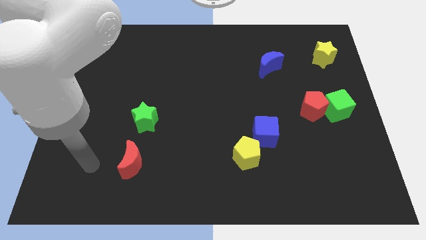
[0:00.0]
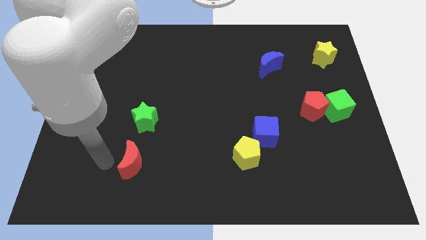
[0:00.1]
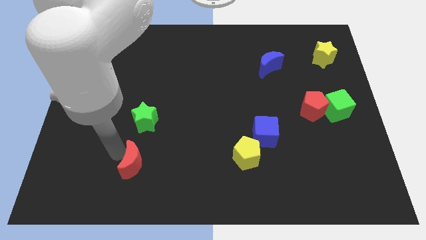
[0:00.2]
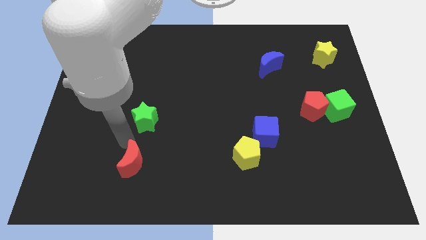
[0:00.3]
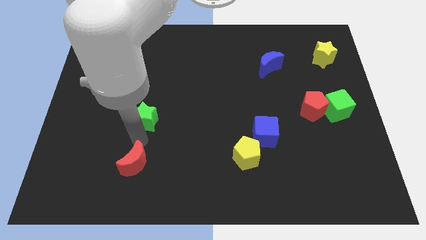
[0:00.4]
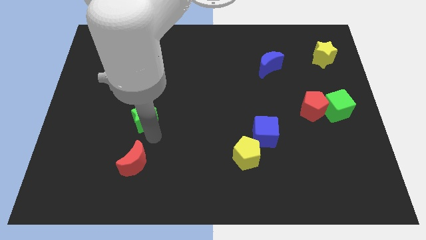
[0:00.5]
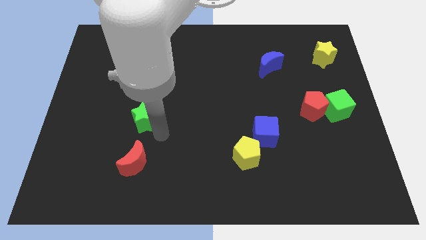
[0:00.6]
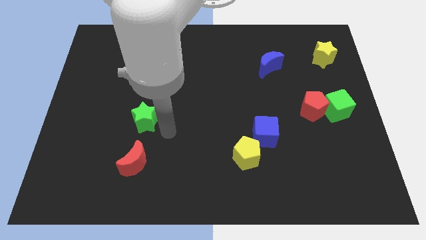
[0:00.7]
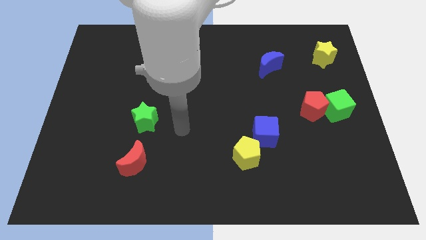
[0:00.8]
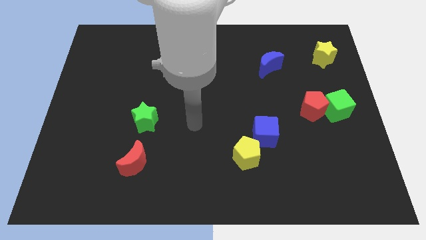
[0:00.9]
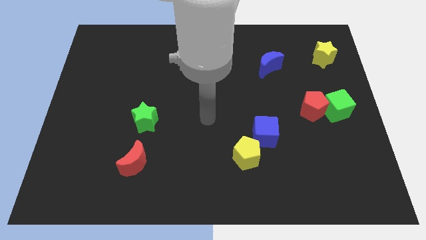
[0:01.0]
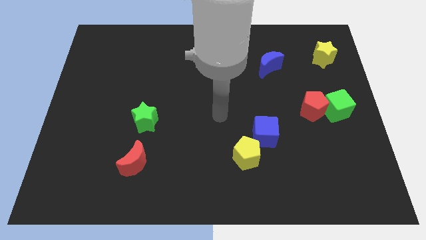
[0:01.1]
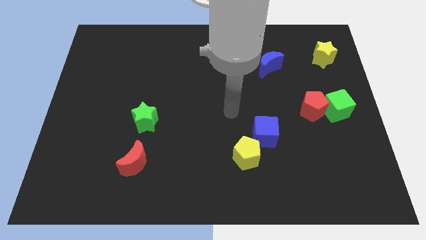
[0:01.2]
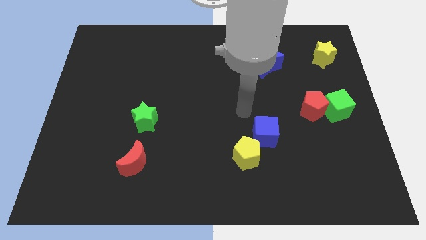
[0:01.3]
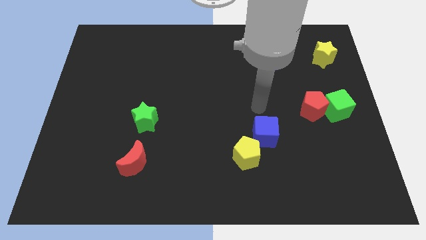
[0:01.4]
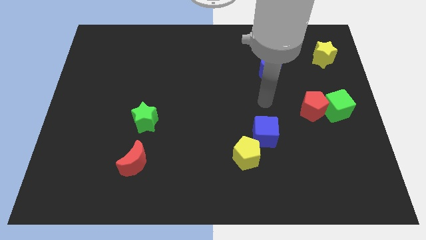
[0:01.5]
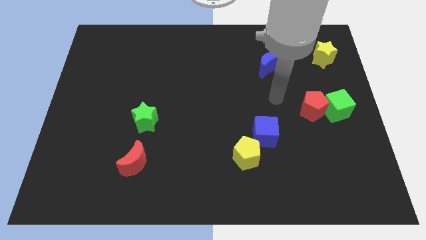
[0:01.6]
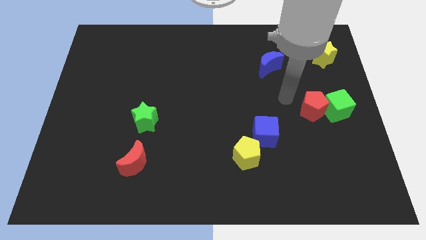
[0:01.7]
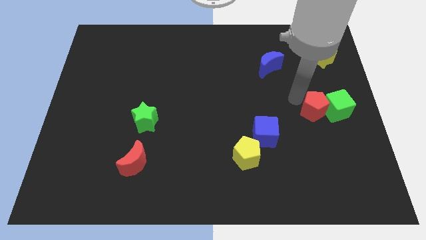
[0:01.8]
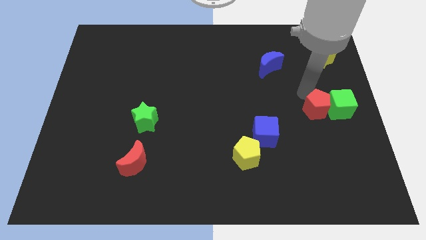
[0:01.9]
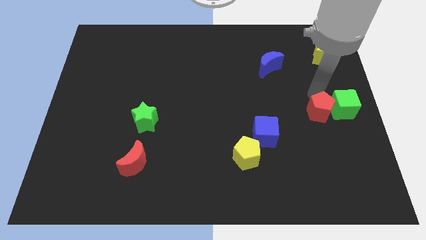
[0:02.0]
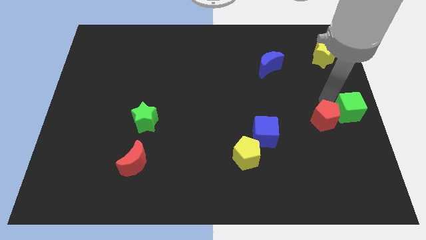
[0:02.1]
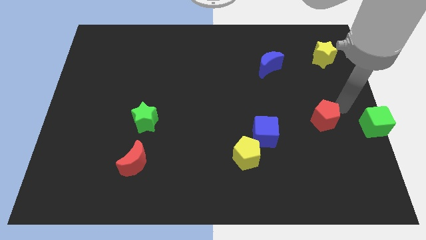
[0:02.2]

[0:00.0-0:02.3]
move the red pentagon away from the green cube

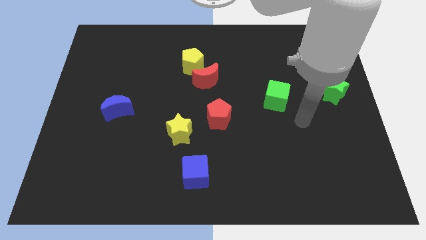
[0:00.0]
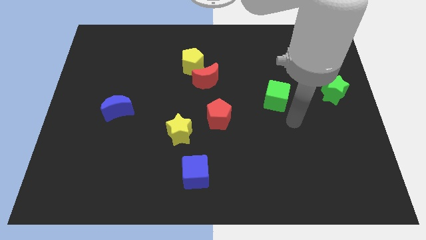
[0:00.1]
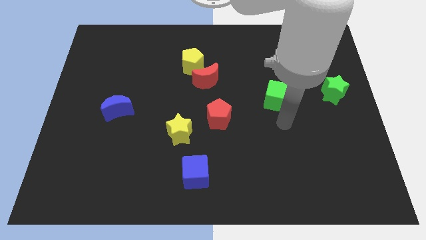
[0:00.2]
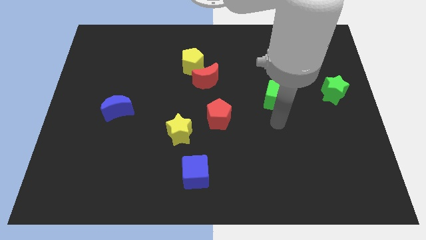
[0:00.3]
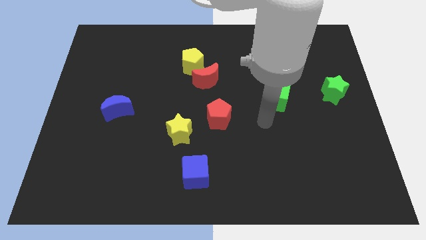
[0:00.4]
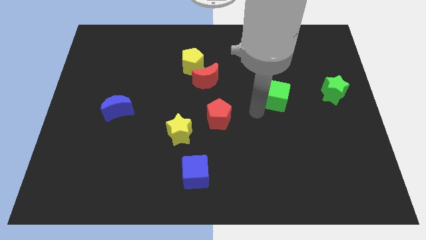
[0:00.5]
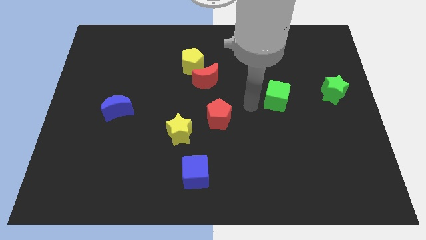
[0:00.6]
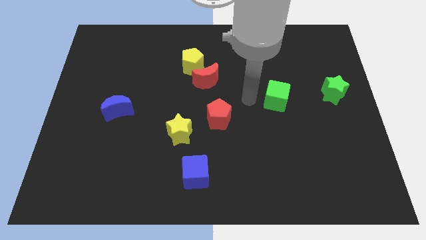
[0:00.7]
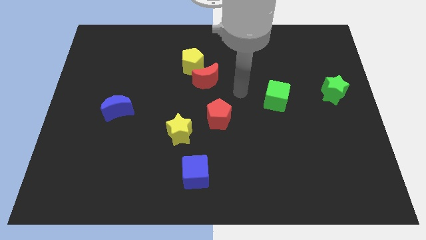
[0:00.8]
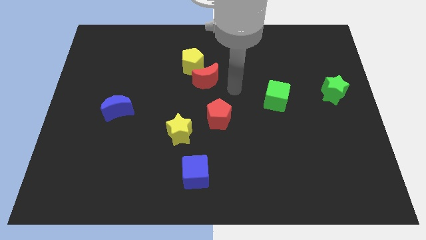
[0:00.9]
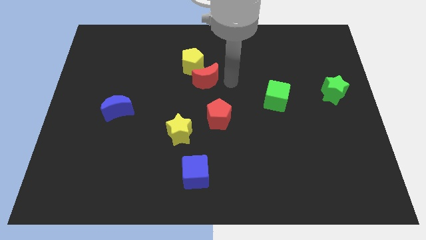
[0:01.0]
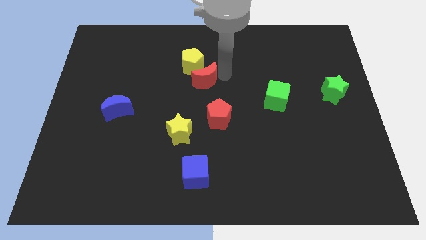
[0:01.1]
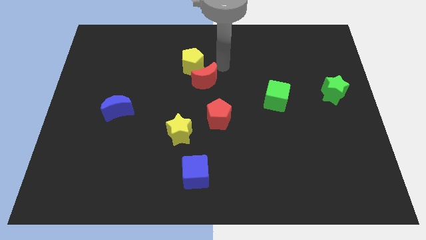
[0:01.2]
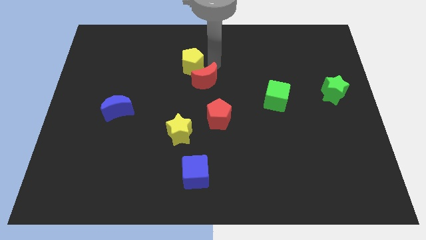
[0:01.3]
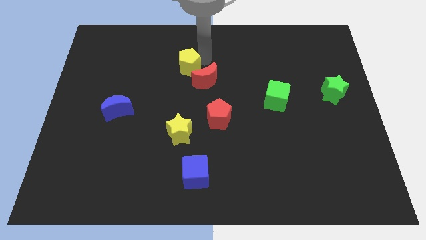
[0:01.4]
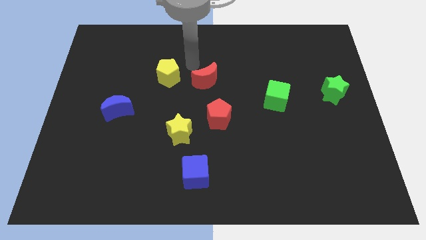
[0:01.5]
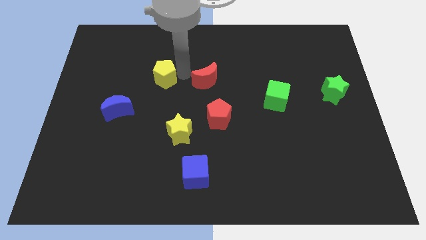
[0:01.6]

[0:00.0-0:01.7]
separate the red moon from the yellow pentagon

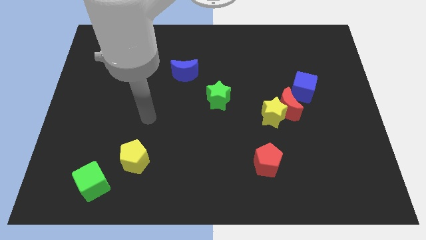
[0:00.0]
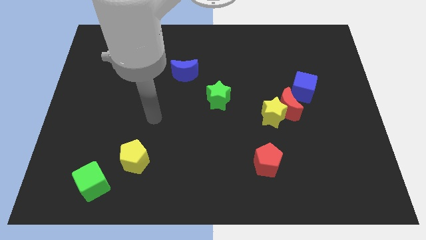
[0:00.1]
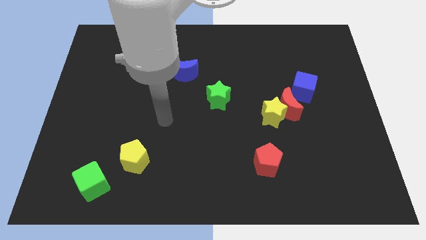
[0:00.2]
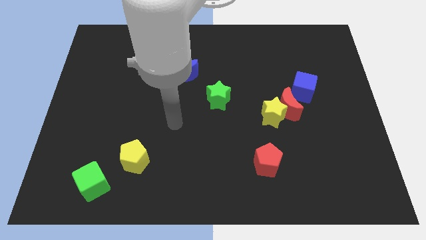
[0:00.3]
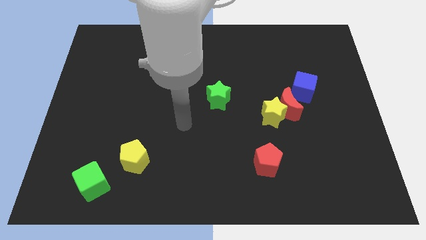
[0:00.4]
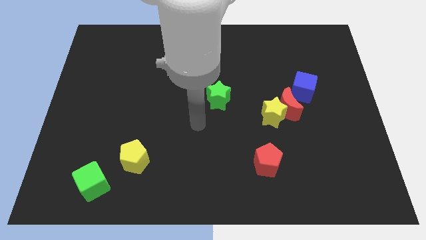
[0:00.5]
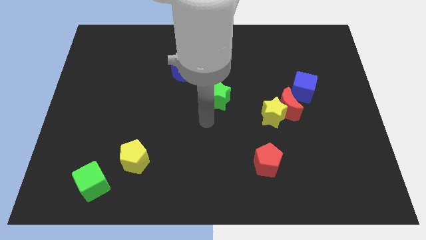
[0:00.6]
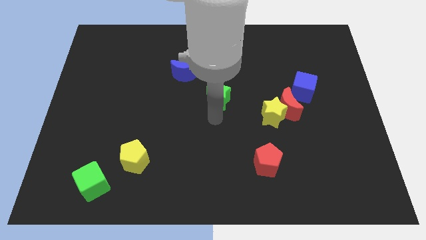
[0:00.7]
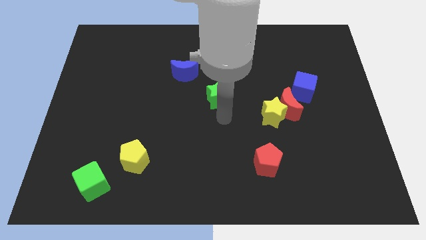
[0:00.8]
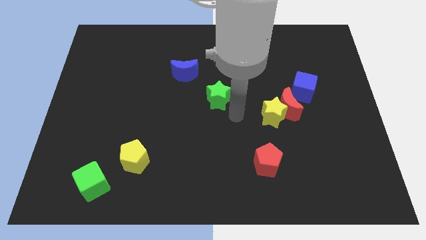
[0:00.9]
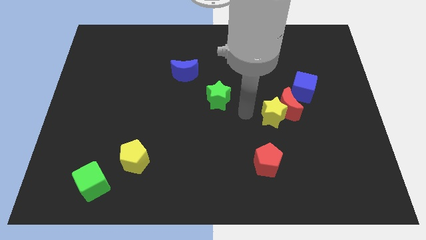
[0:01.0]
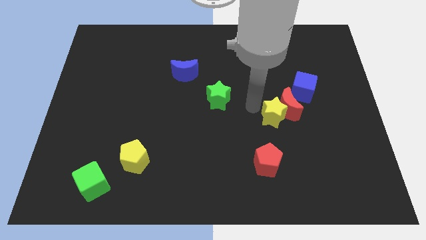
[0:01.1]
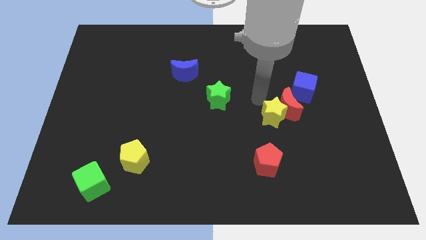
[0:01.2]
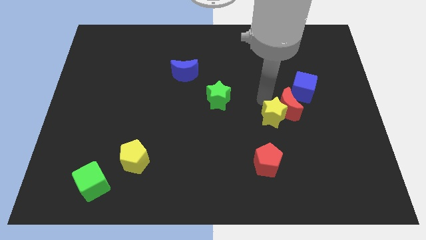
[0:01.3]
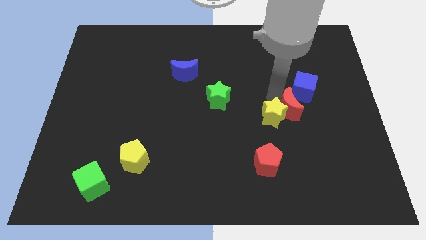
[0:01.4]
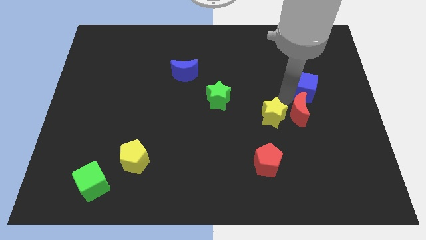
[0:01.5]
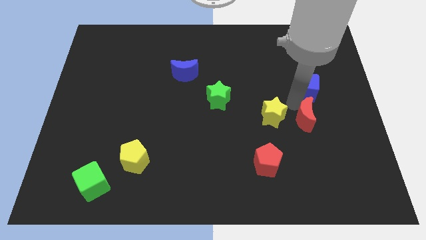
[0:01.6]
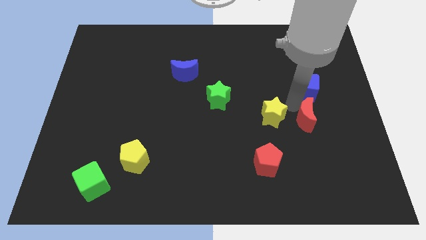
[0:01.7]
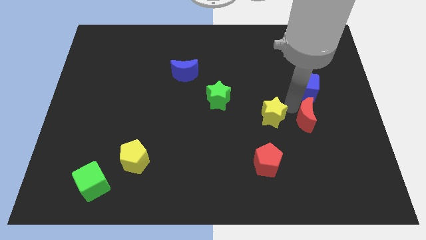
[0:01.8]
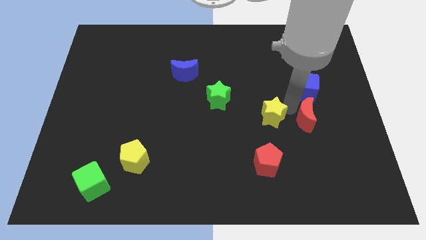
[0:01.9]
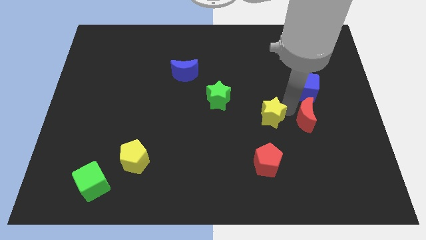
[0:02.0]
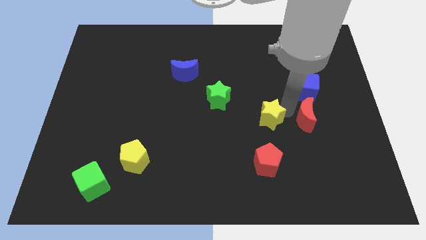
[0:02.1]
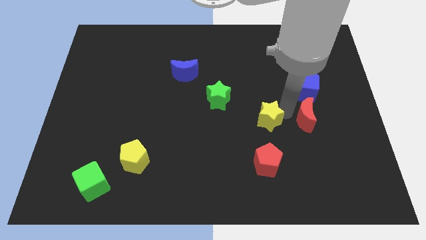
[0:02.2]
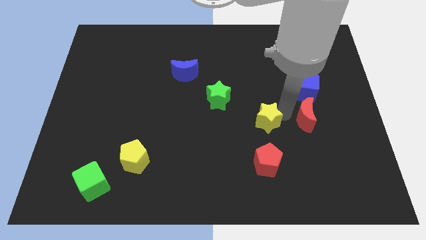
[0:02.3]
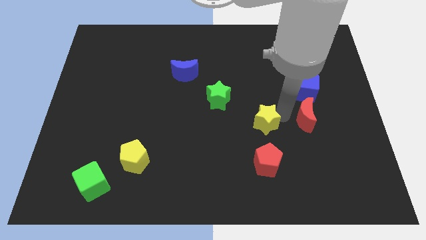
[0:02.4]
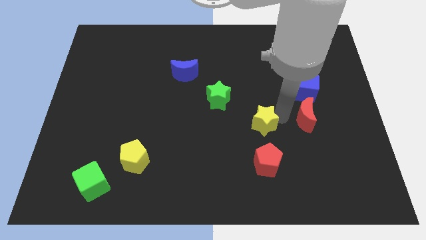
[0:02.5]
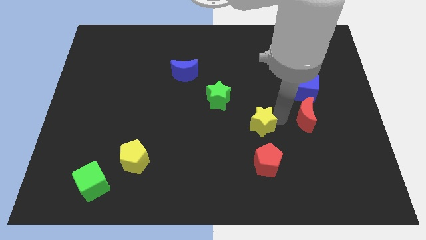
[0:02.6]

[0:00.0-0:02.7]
move the yellow star away from the red moon

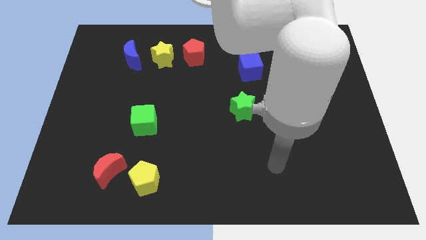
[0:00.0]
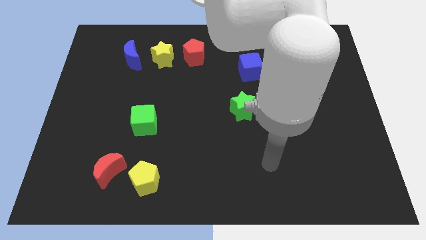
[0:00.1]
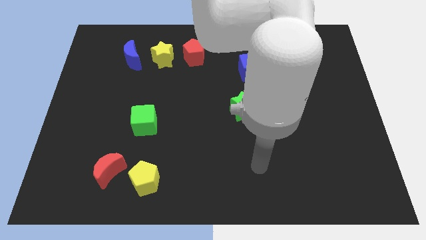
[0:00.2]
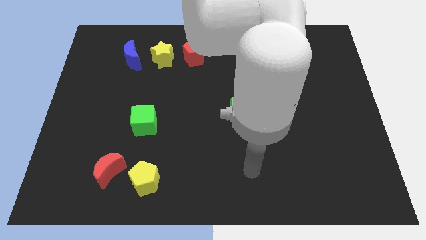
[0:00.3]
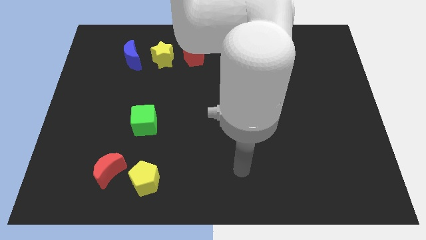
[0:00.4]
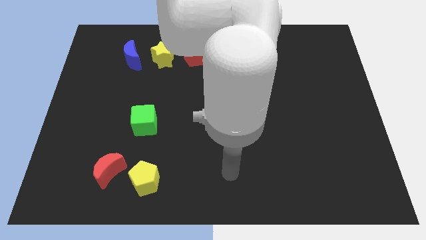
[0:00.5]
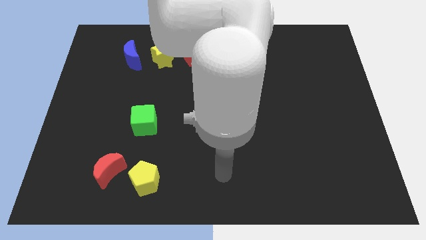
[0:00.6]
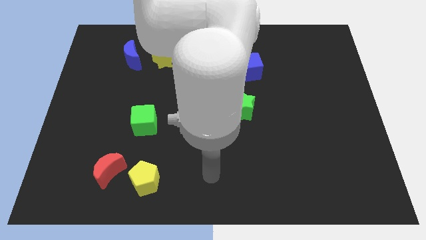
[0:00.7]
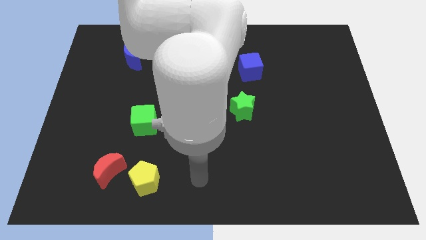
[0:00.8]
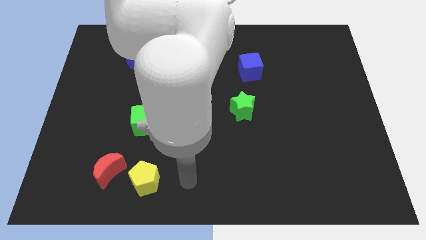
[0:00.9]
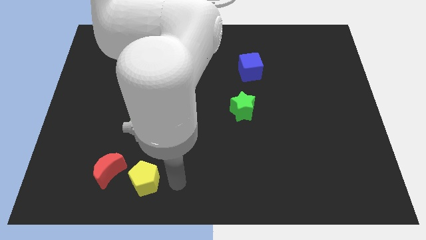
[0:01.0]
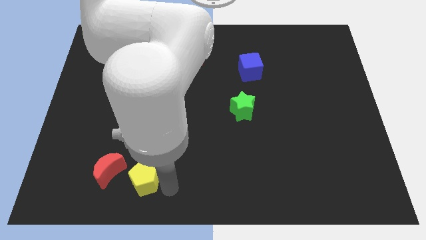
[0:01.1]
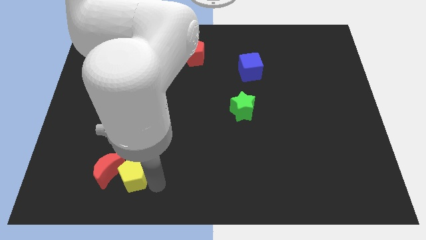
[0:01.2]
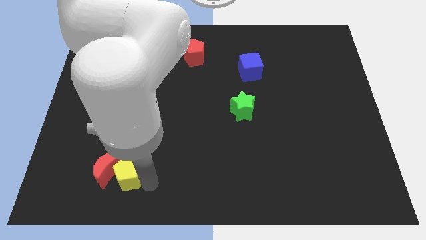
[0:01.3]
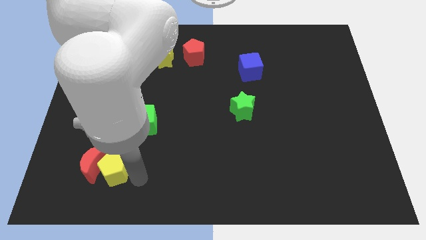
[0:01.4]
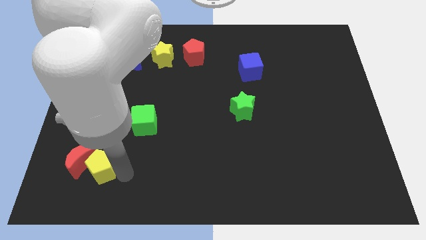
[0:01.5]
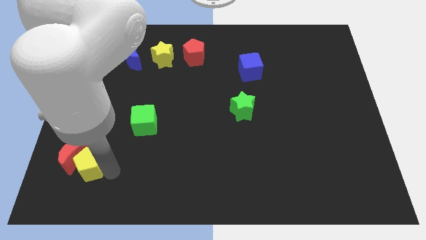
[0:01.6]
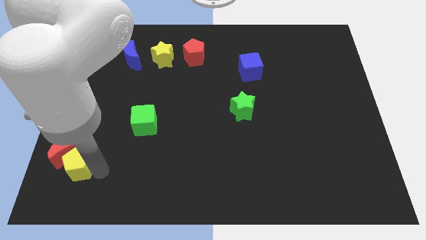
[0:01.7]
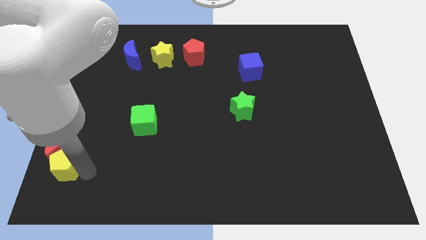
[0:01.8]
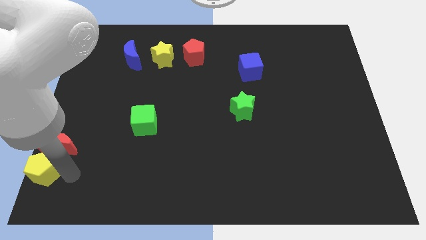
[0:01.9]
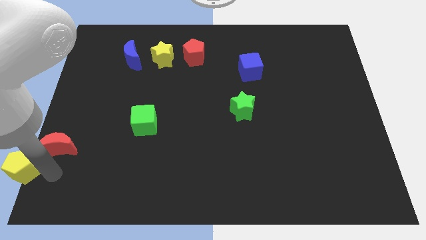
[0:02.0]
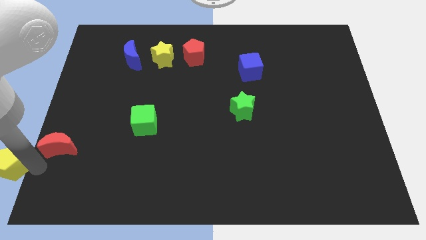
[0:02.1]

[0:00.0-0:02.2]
pull the red moon apart from the yellow pentagon

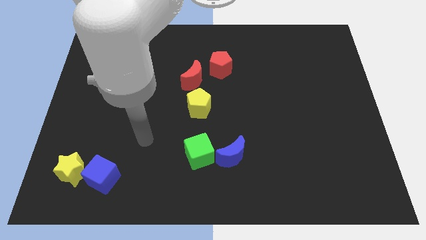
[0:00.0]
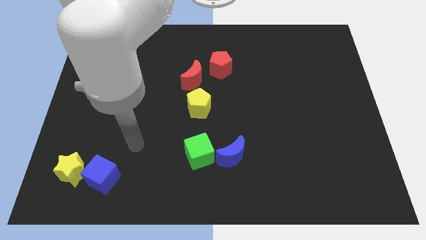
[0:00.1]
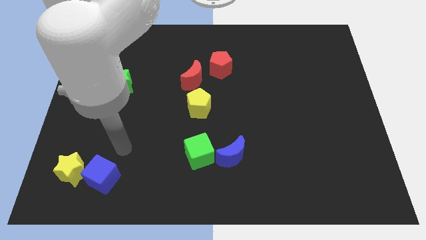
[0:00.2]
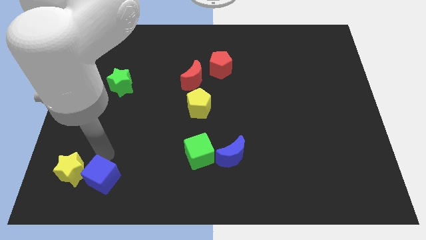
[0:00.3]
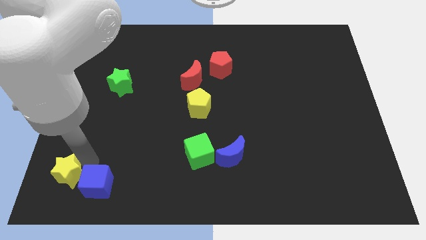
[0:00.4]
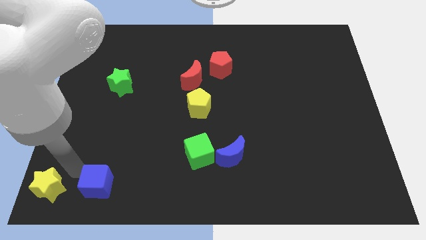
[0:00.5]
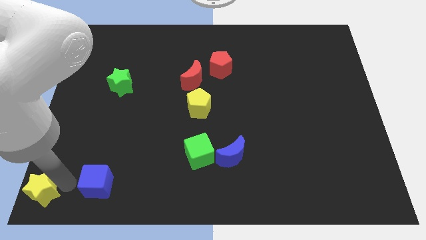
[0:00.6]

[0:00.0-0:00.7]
separate the blue cube from the yellow star
